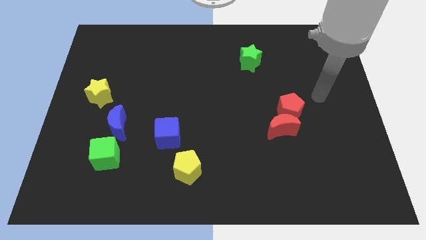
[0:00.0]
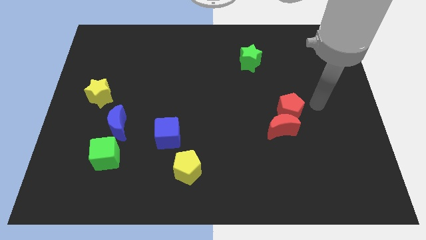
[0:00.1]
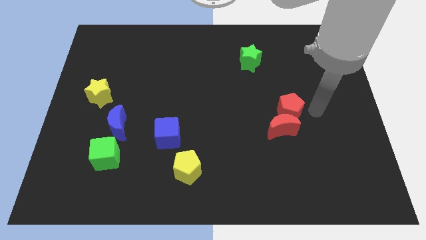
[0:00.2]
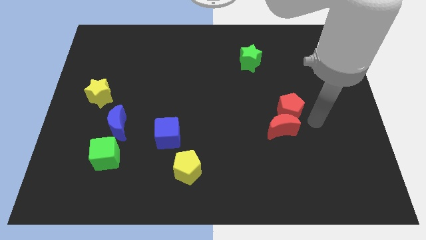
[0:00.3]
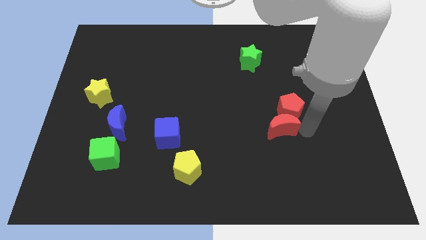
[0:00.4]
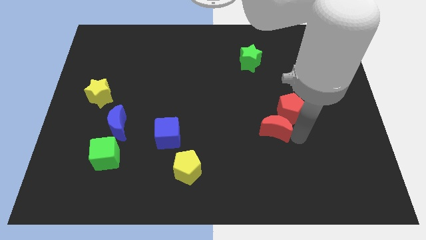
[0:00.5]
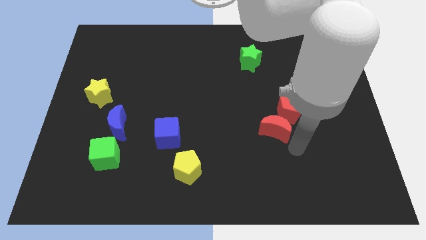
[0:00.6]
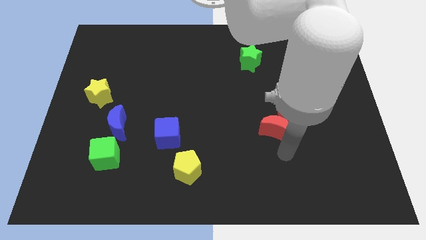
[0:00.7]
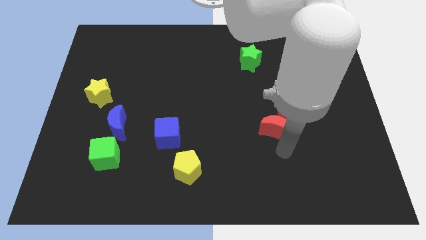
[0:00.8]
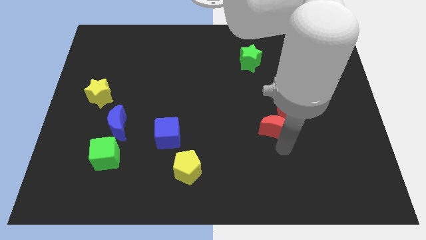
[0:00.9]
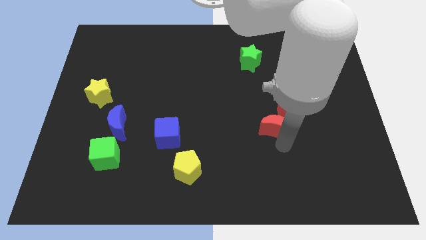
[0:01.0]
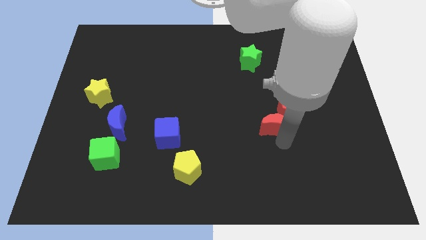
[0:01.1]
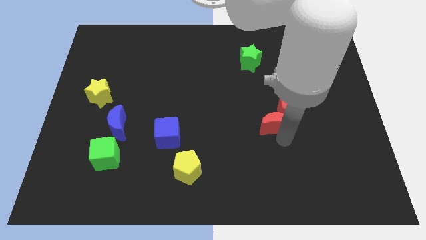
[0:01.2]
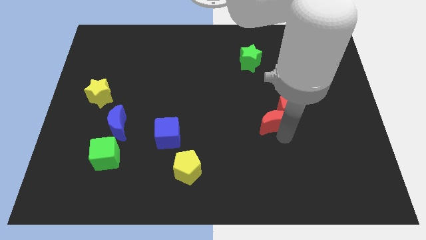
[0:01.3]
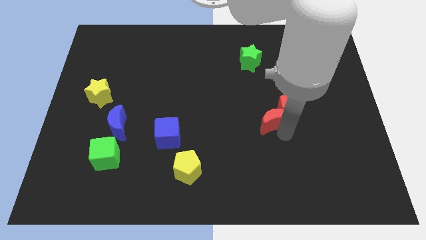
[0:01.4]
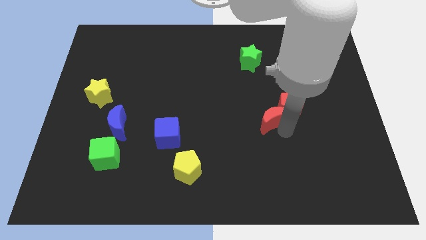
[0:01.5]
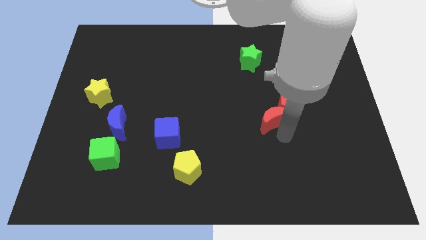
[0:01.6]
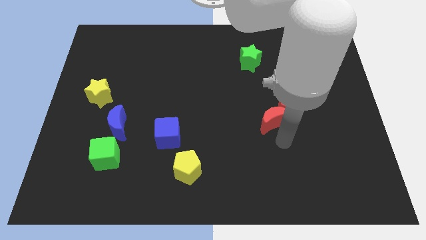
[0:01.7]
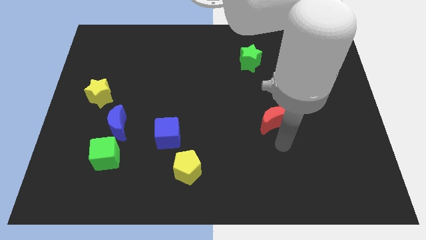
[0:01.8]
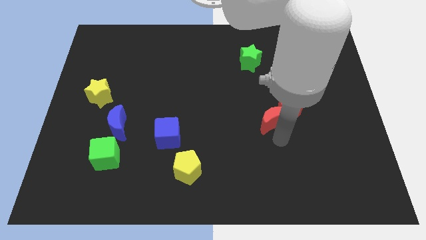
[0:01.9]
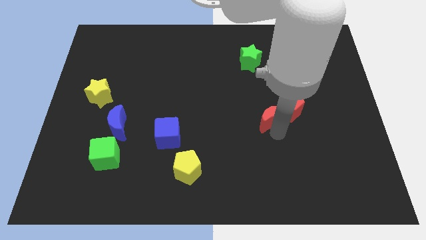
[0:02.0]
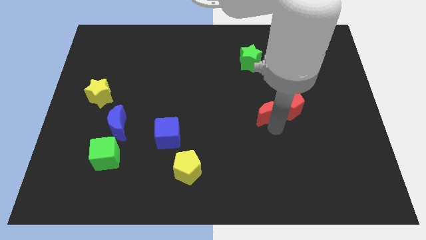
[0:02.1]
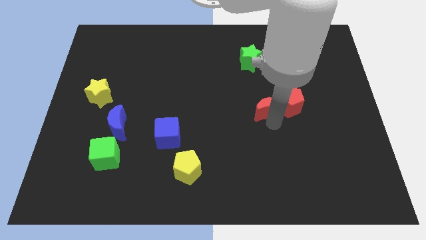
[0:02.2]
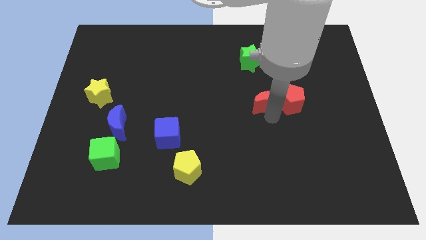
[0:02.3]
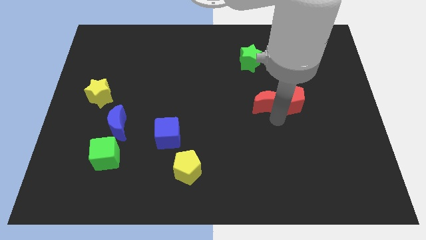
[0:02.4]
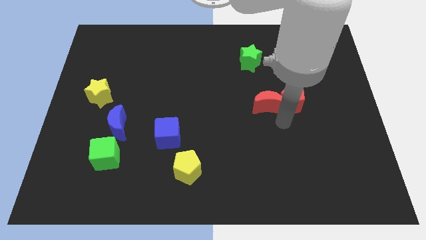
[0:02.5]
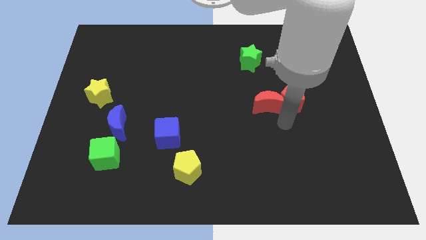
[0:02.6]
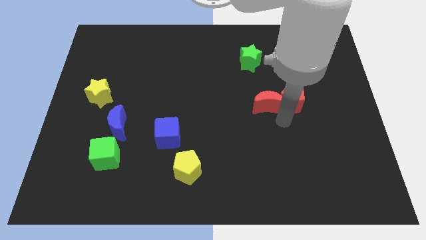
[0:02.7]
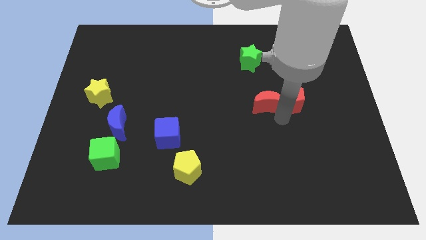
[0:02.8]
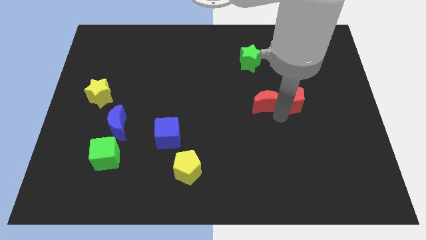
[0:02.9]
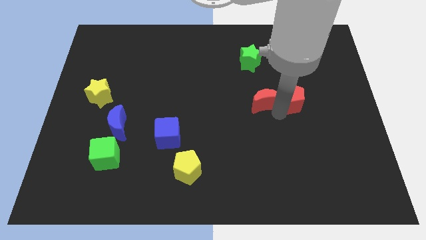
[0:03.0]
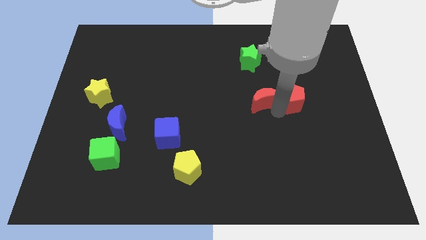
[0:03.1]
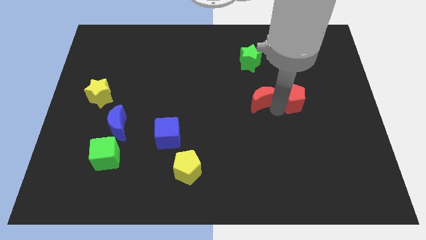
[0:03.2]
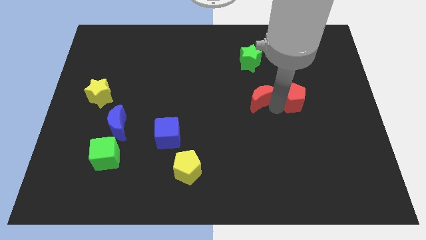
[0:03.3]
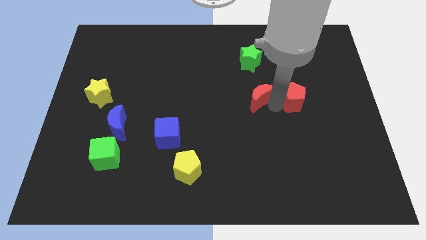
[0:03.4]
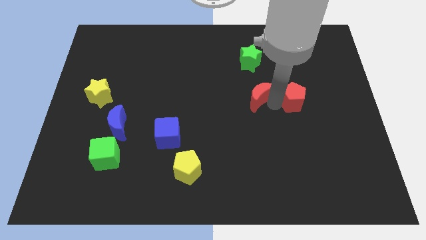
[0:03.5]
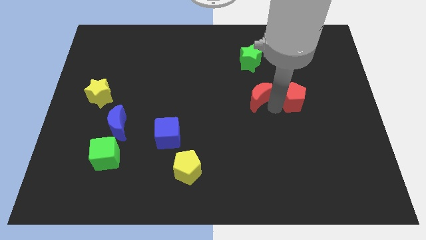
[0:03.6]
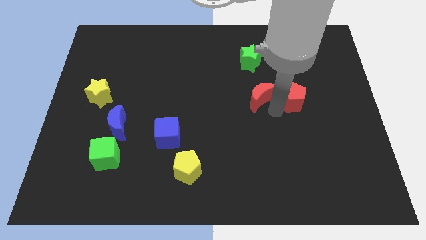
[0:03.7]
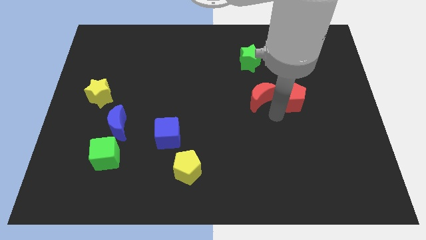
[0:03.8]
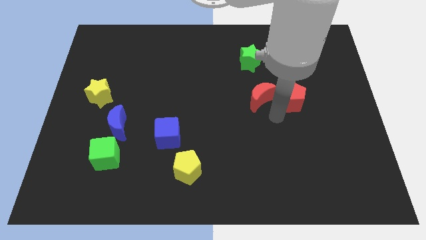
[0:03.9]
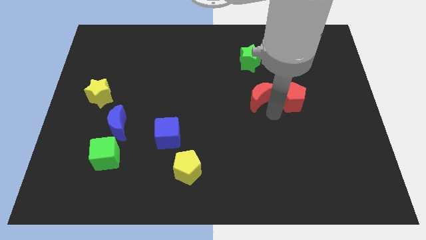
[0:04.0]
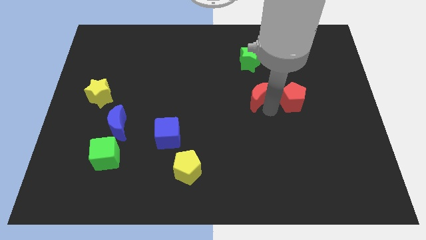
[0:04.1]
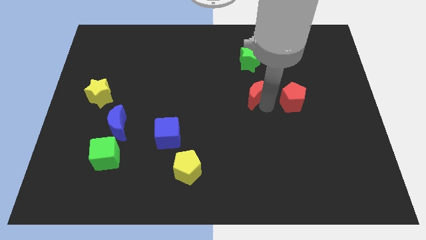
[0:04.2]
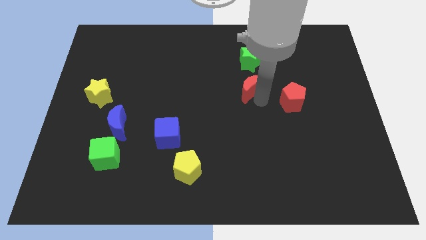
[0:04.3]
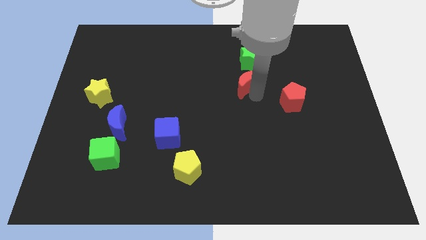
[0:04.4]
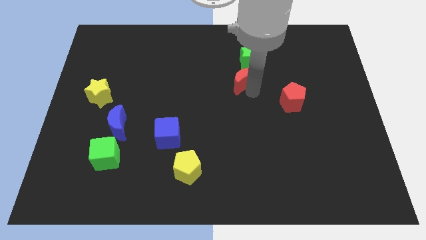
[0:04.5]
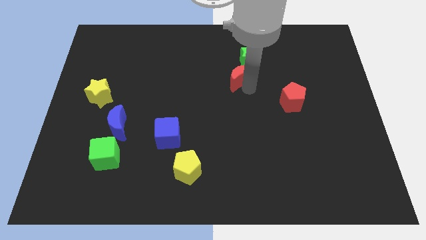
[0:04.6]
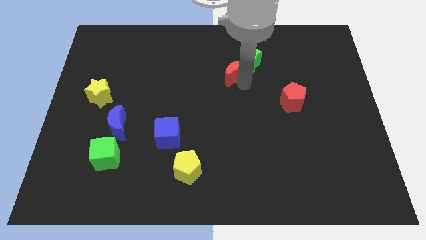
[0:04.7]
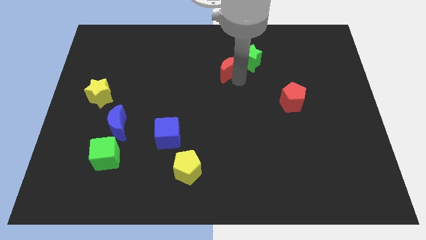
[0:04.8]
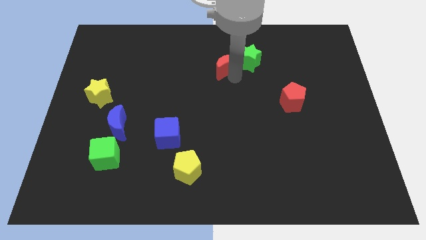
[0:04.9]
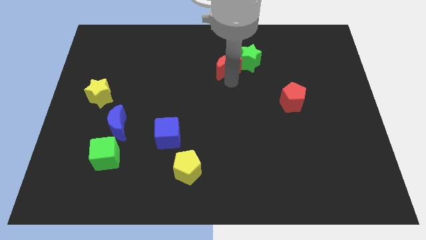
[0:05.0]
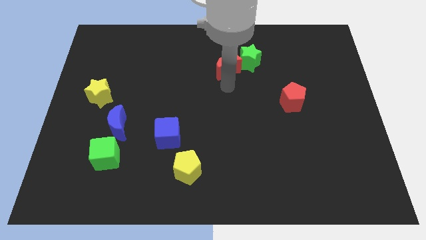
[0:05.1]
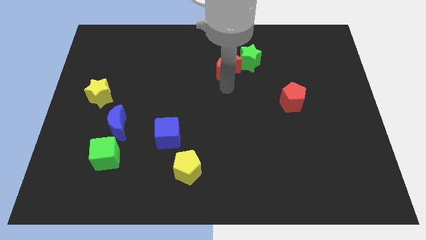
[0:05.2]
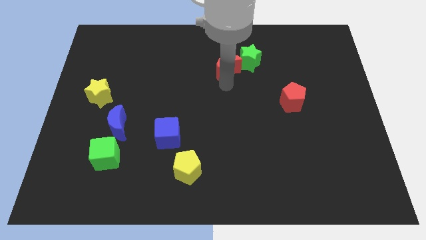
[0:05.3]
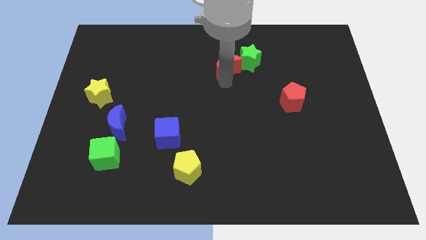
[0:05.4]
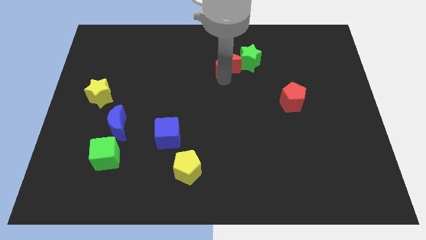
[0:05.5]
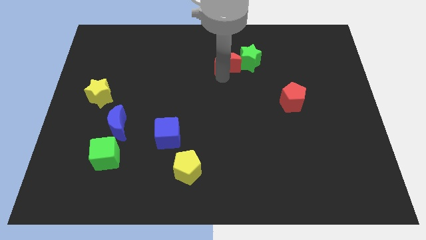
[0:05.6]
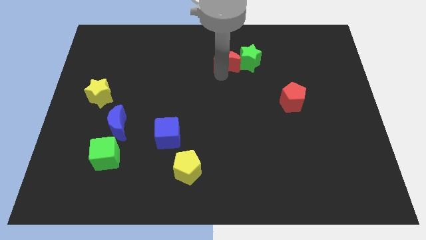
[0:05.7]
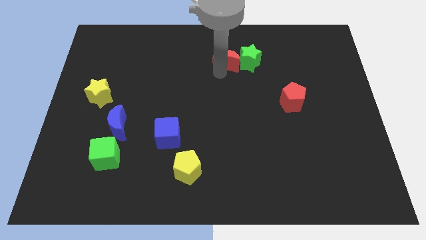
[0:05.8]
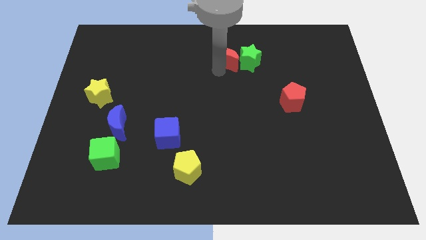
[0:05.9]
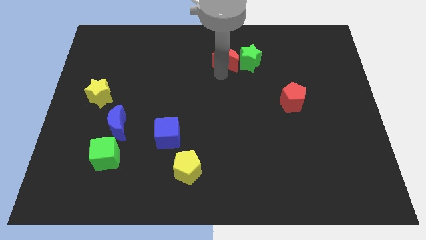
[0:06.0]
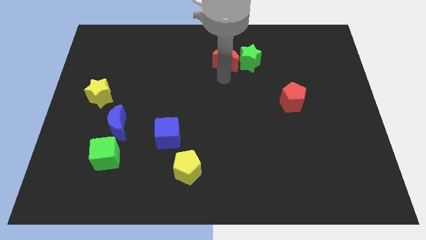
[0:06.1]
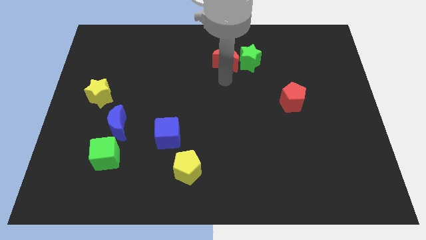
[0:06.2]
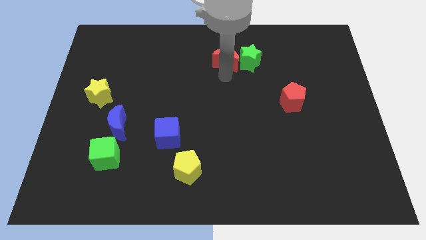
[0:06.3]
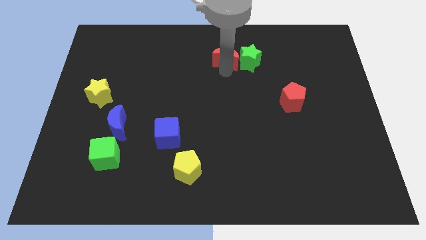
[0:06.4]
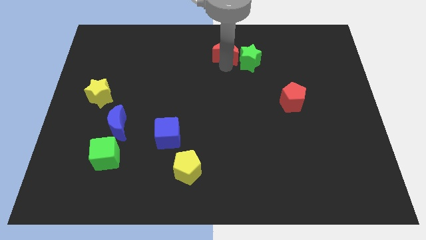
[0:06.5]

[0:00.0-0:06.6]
move the red moon to the towards your base

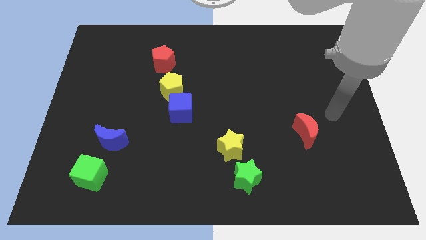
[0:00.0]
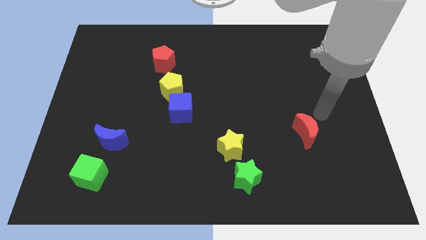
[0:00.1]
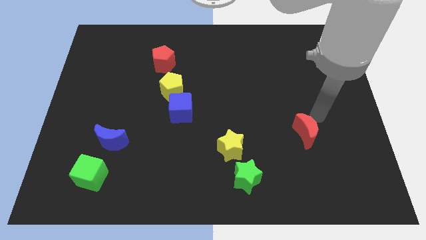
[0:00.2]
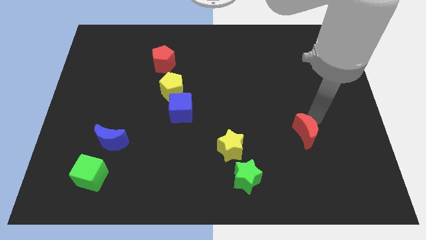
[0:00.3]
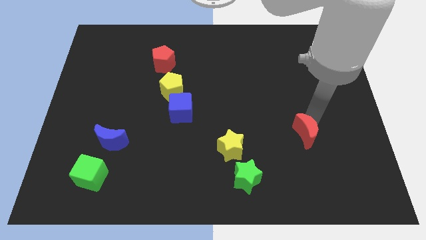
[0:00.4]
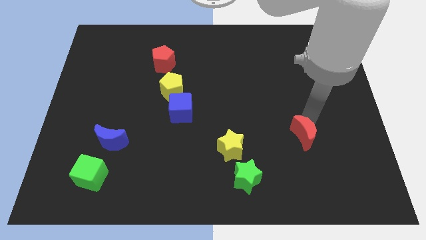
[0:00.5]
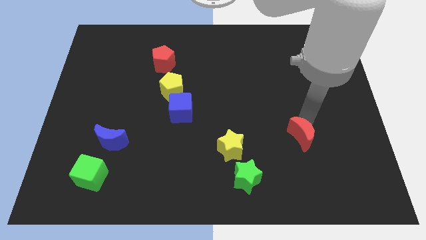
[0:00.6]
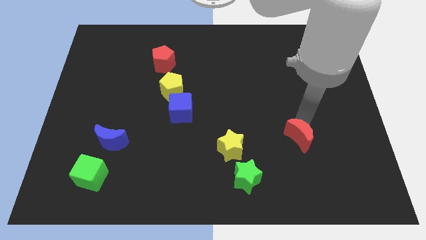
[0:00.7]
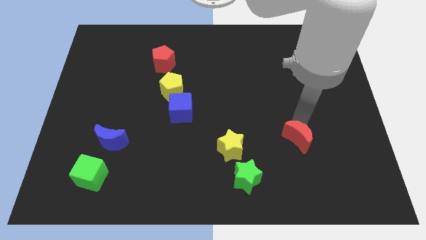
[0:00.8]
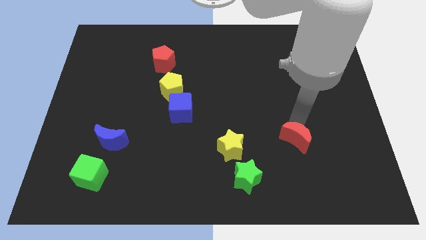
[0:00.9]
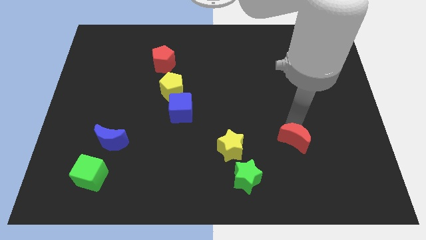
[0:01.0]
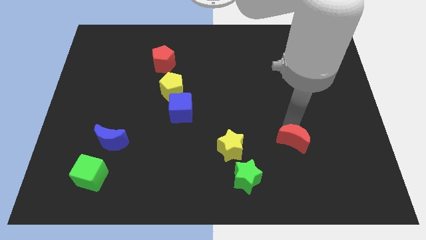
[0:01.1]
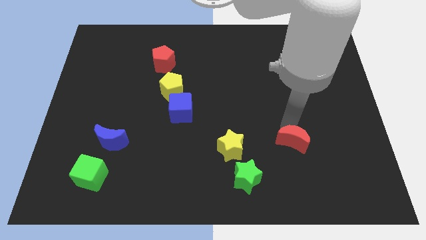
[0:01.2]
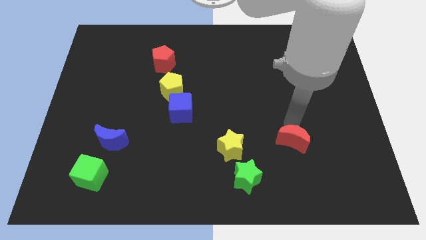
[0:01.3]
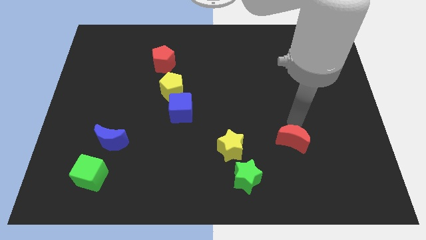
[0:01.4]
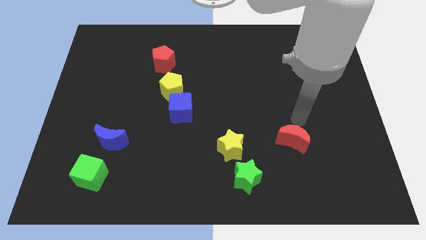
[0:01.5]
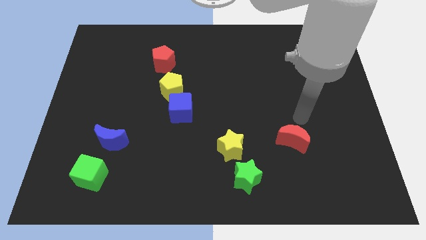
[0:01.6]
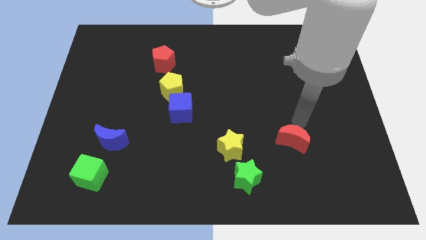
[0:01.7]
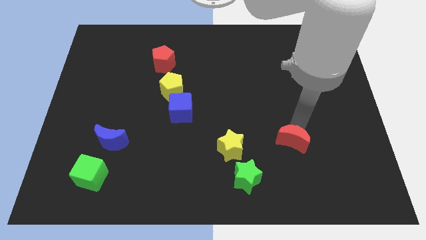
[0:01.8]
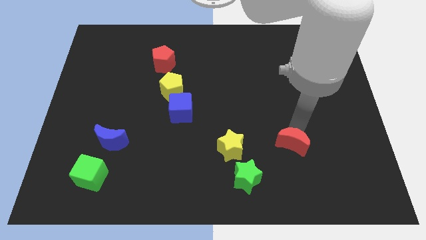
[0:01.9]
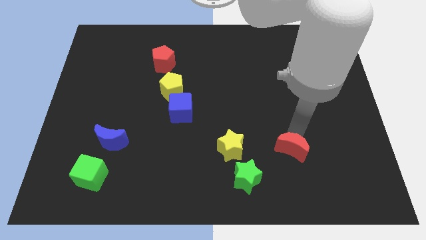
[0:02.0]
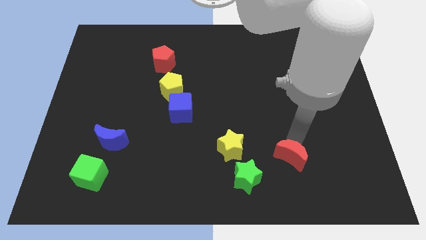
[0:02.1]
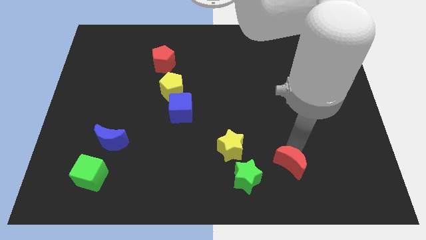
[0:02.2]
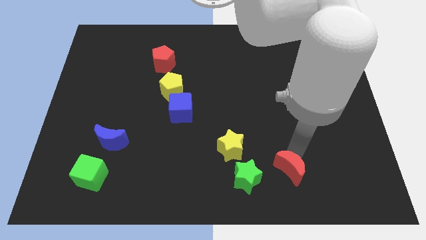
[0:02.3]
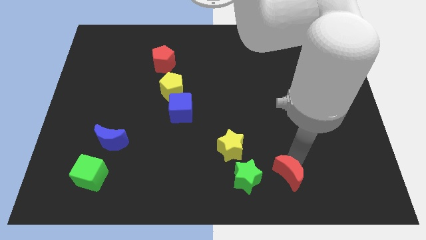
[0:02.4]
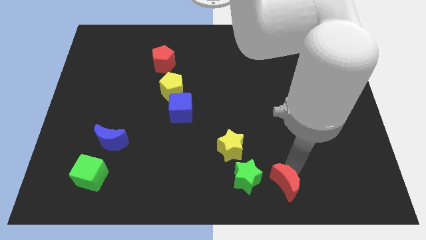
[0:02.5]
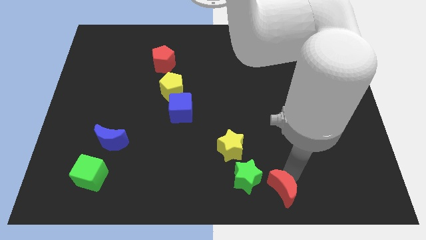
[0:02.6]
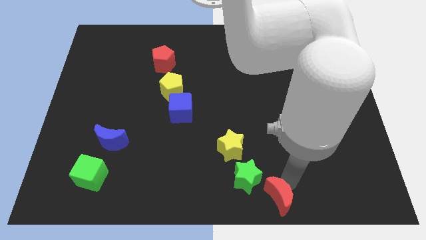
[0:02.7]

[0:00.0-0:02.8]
move the red moon to the bottom
